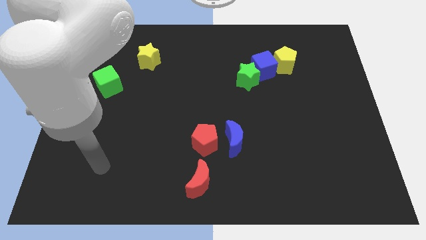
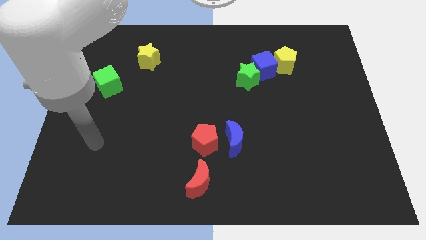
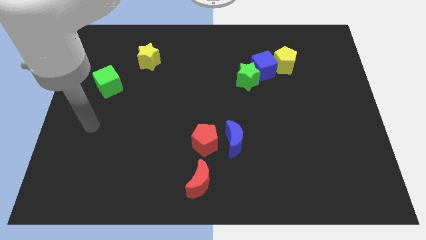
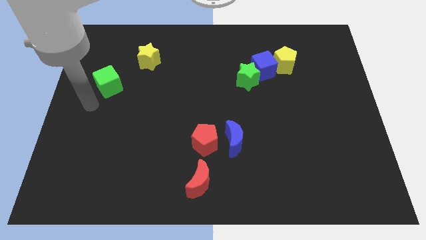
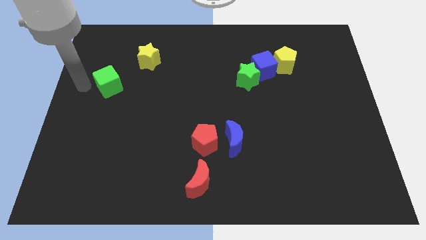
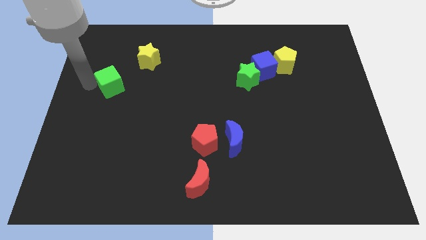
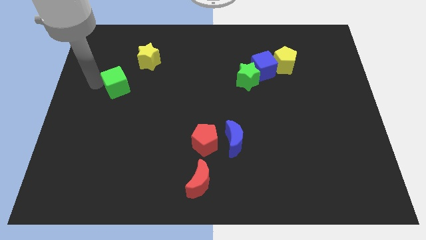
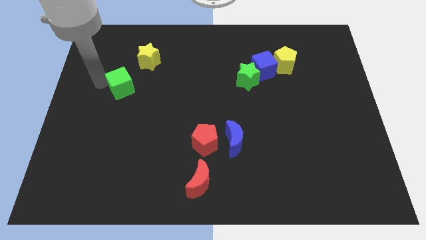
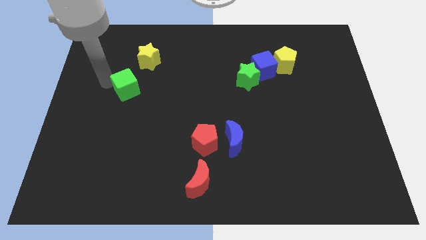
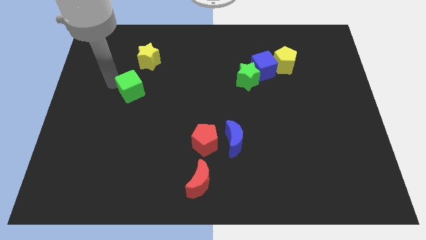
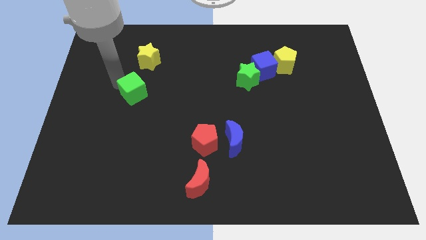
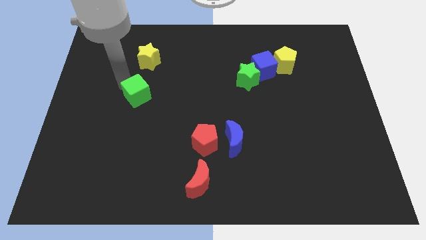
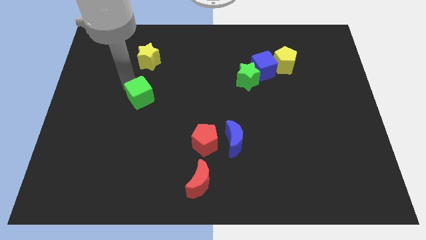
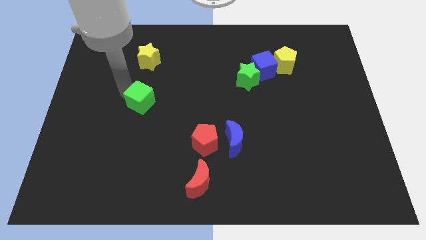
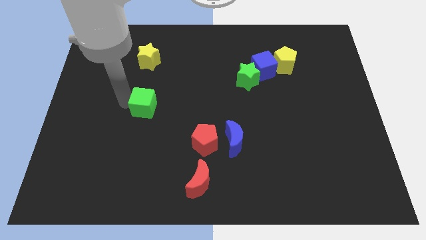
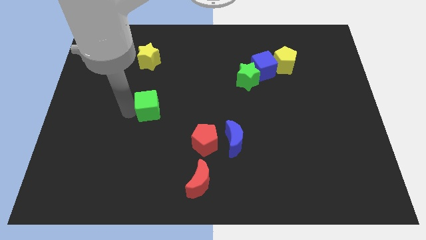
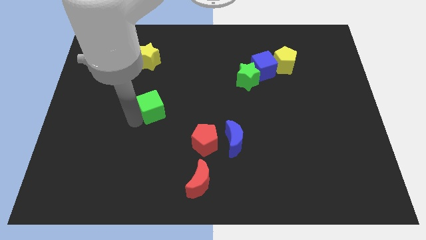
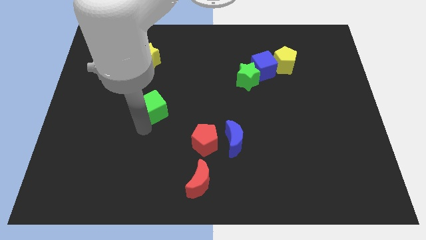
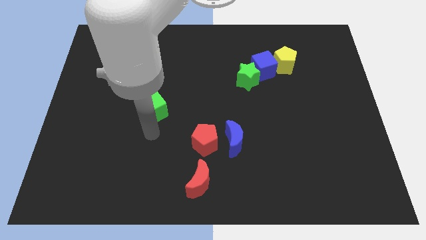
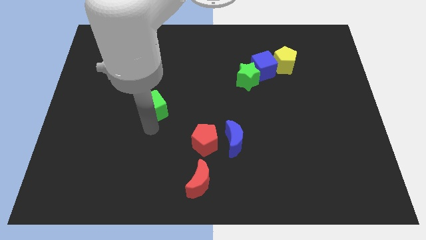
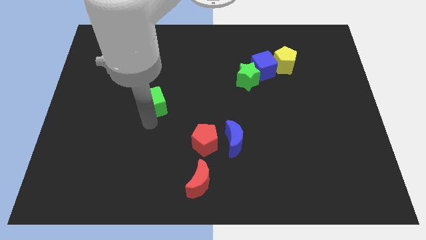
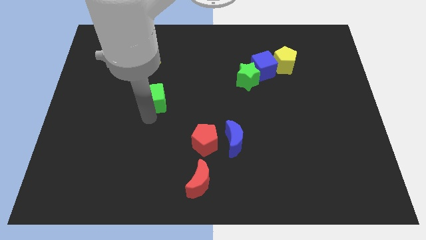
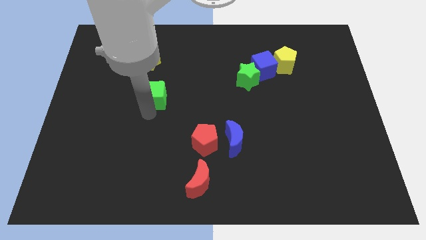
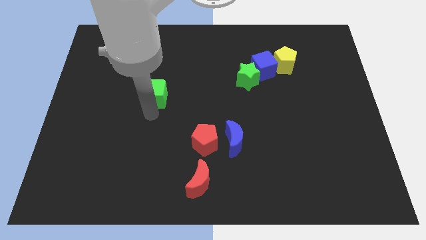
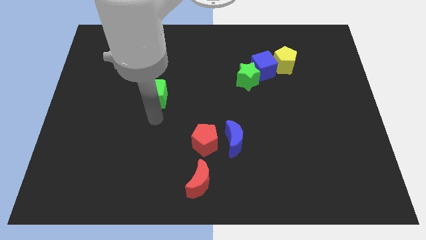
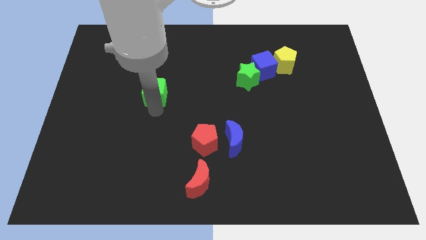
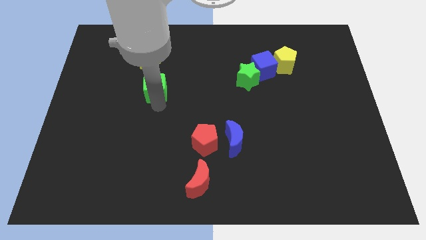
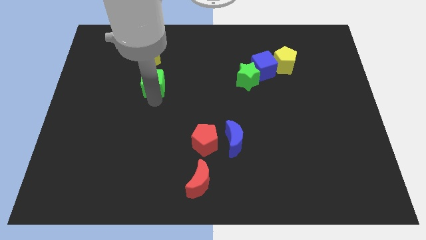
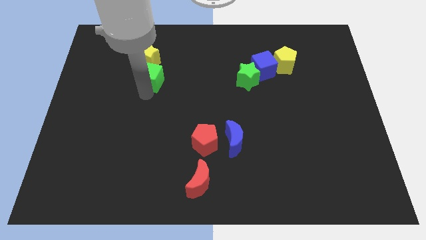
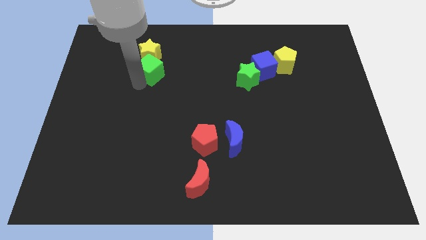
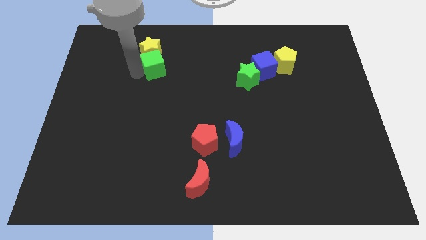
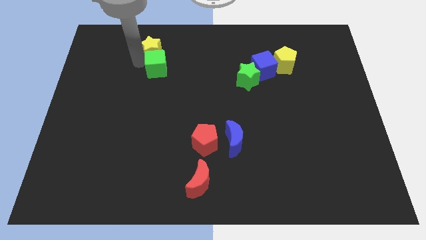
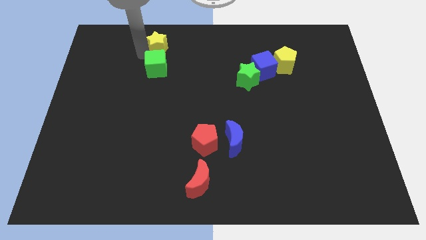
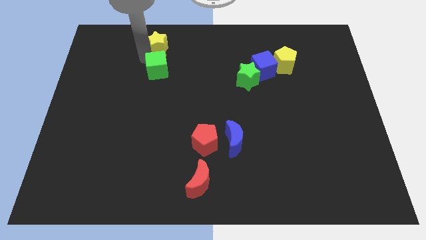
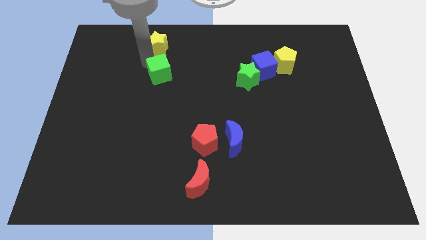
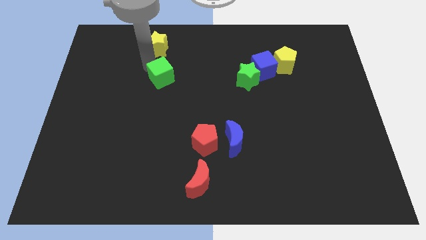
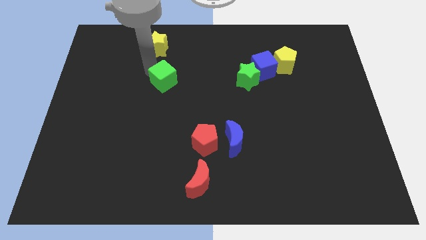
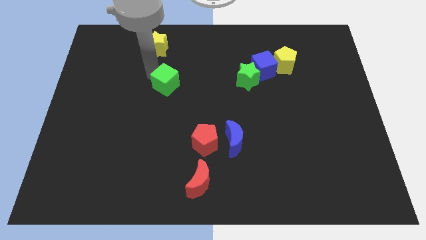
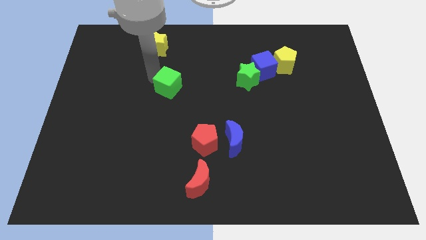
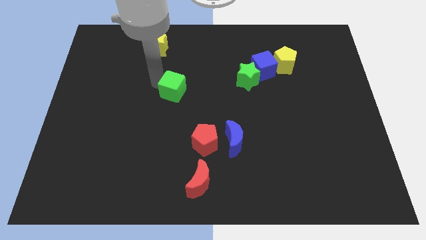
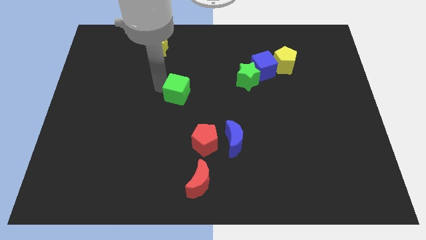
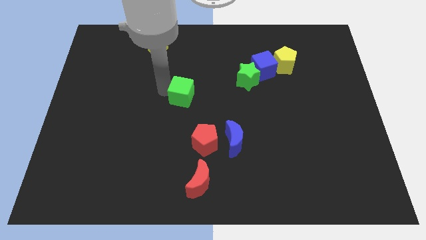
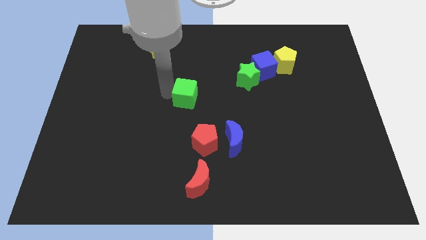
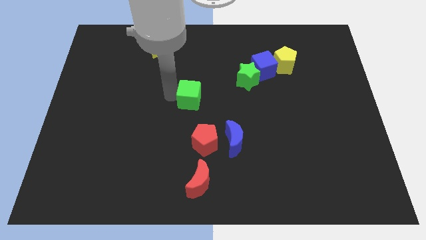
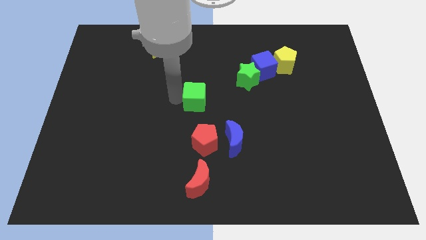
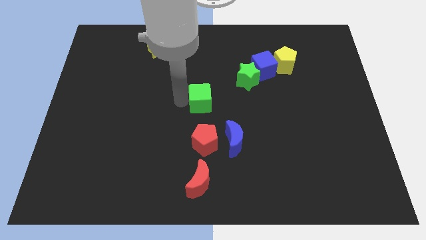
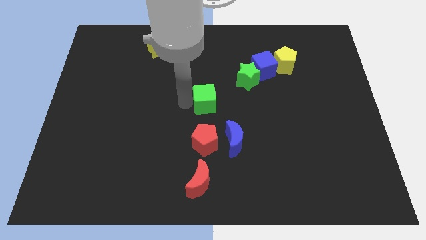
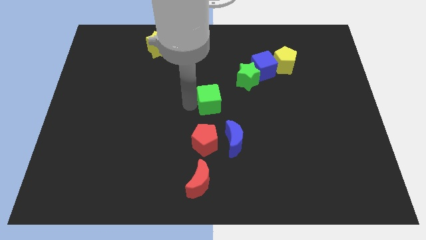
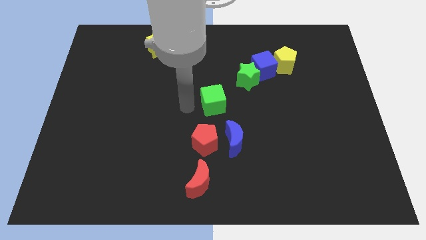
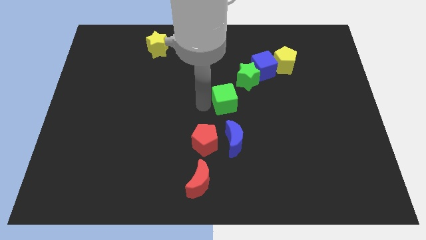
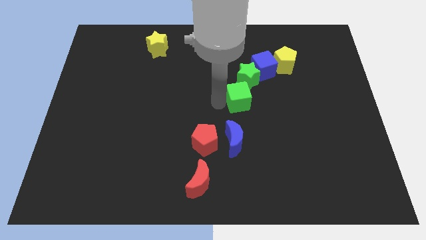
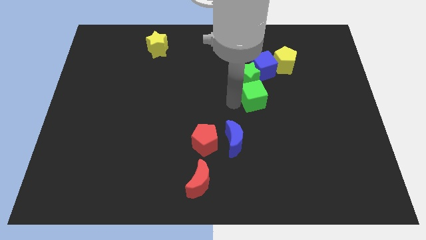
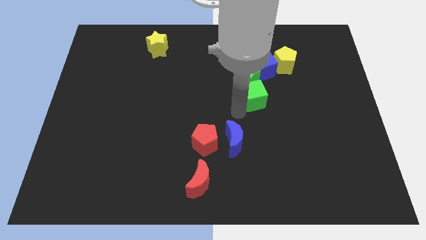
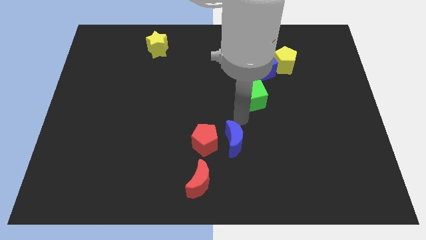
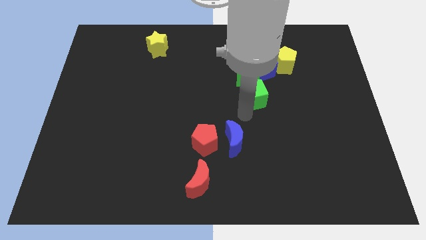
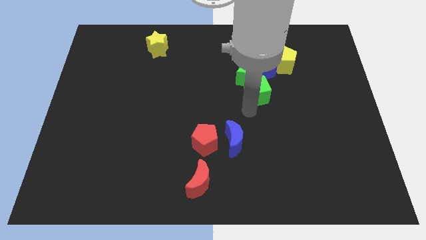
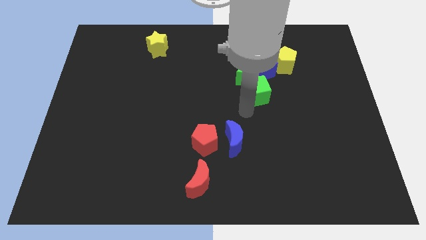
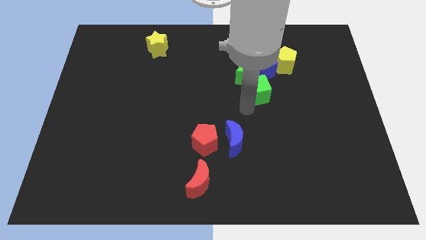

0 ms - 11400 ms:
put the green cube to the bottom left side of the yellow pentagon

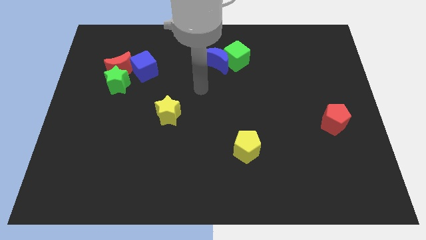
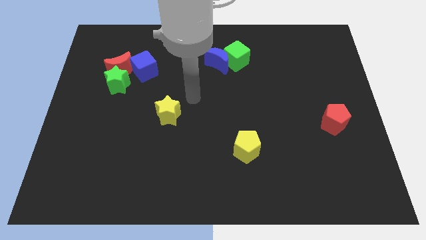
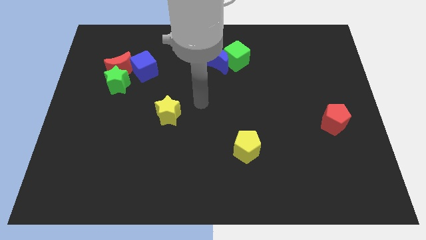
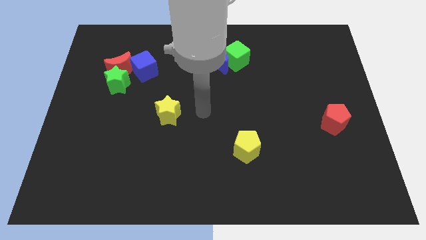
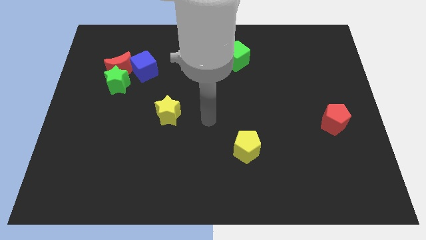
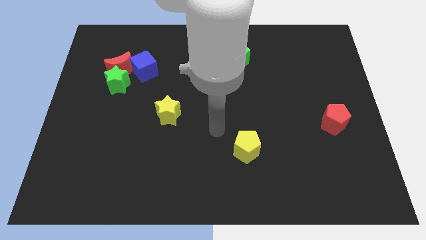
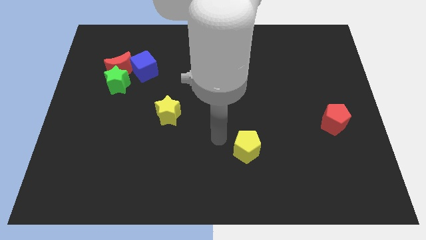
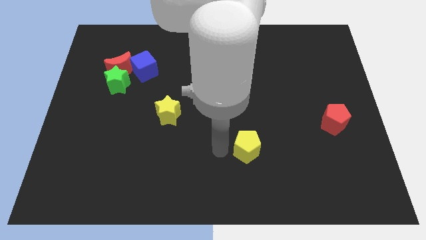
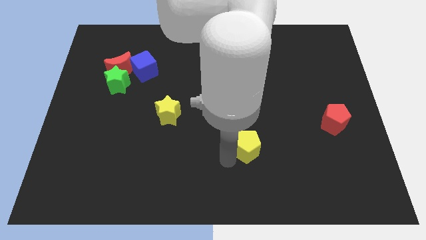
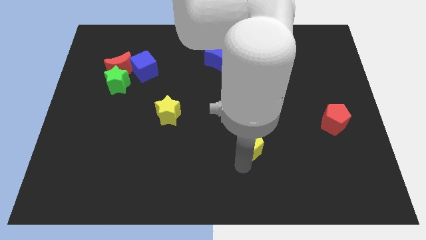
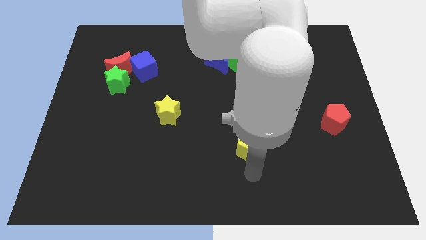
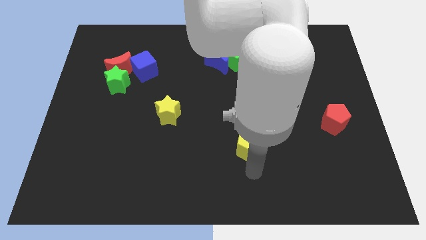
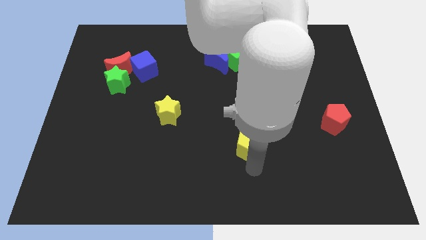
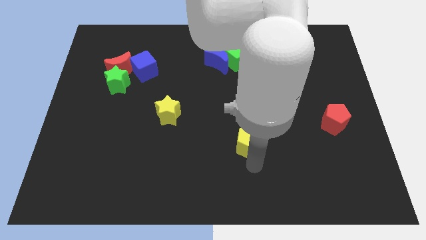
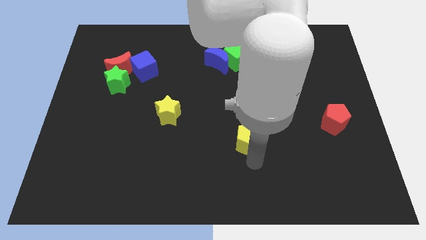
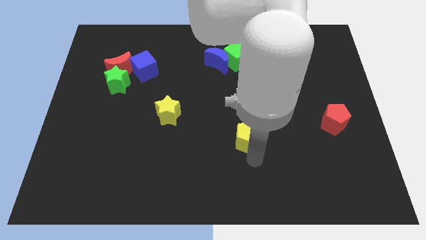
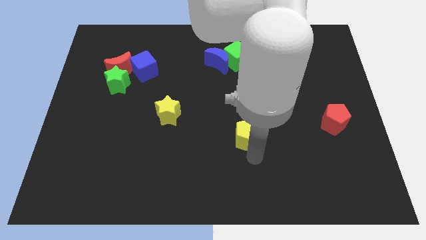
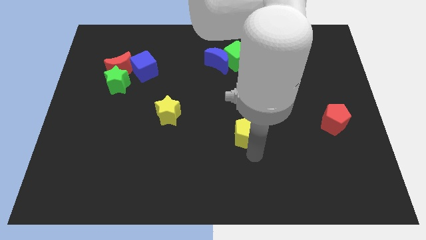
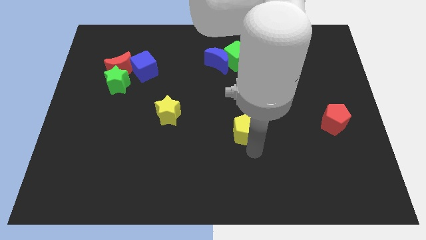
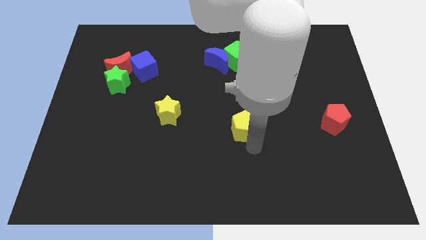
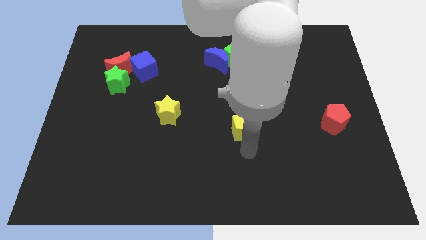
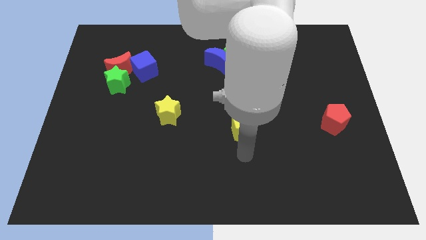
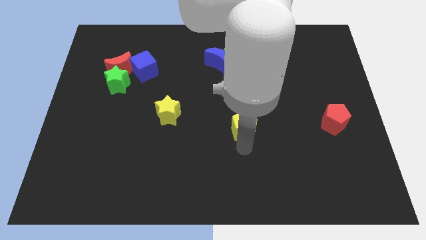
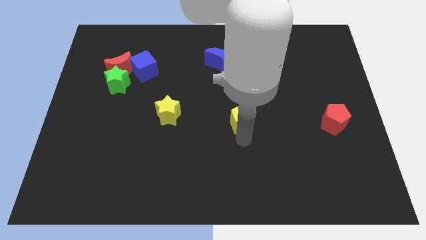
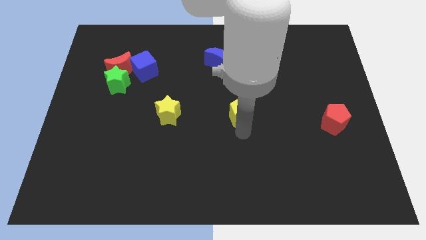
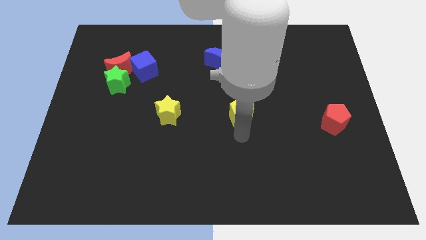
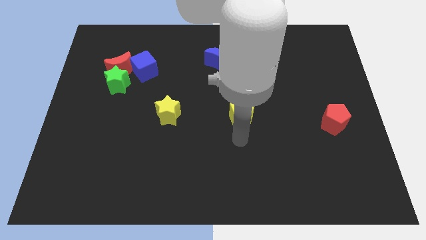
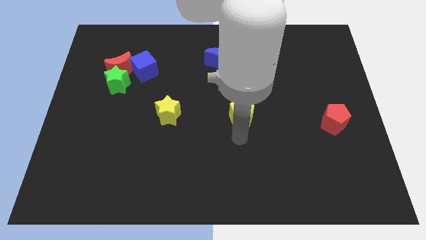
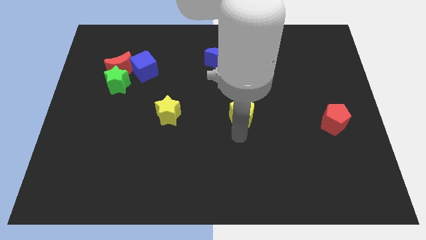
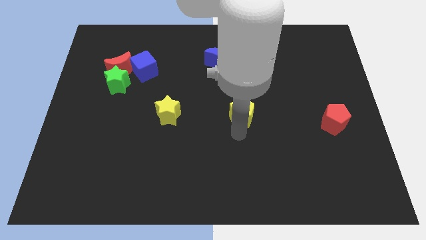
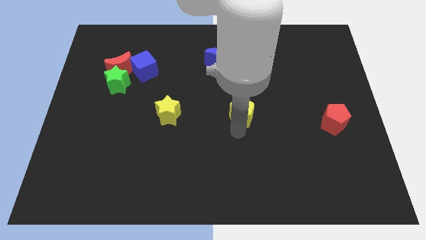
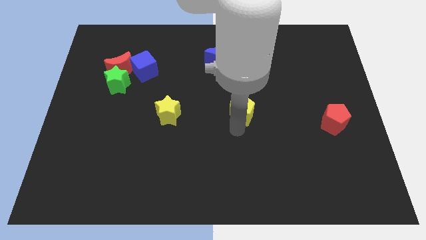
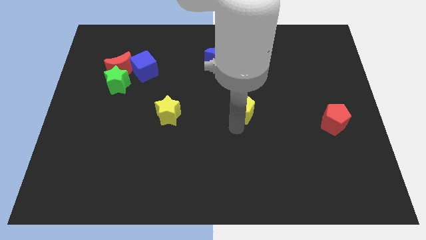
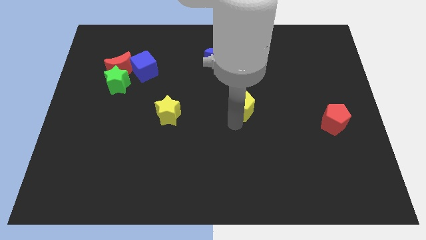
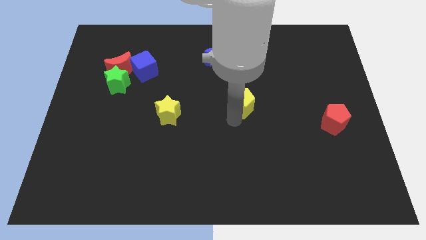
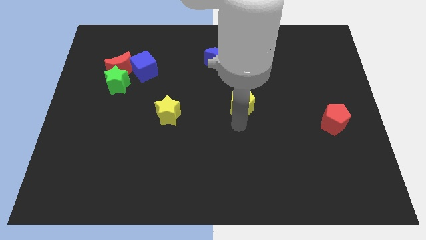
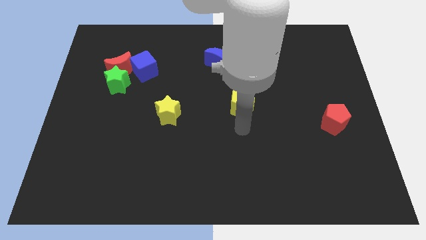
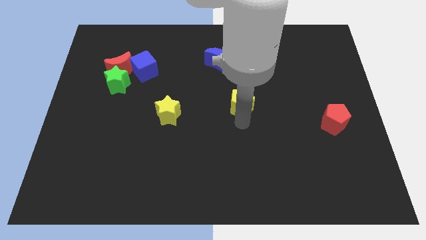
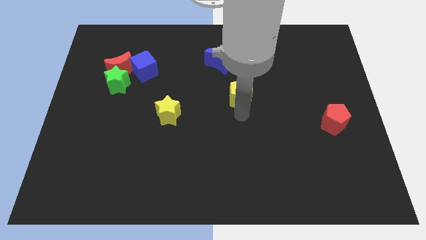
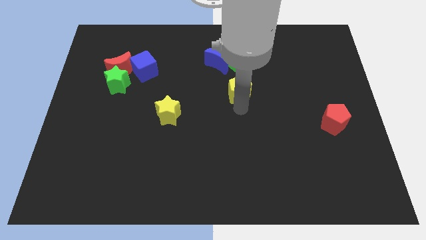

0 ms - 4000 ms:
move the yellow pentagon to the bottom right of the blue moon
